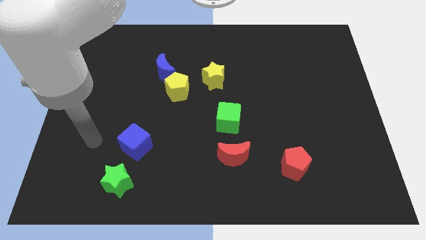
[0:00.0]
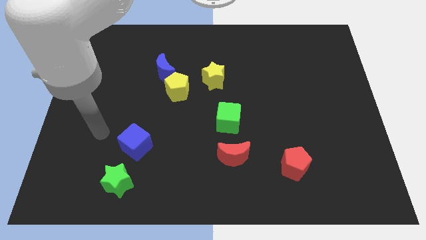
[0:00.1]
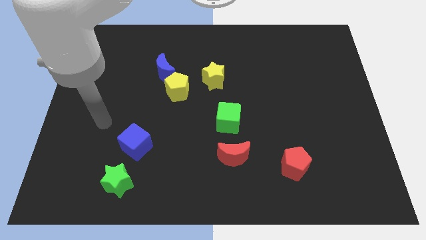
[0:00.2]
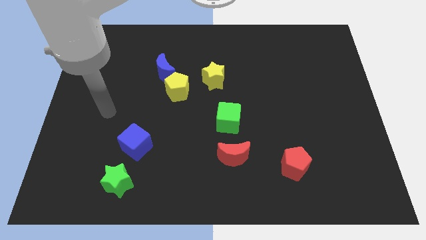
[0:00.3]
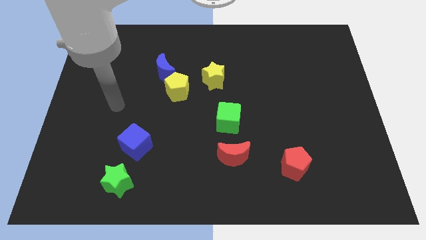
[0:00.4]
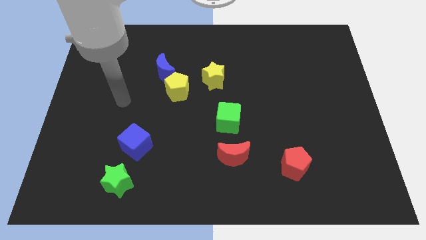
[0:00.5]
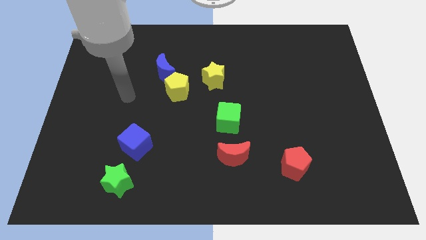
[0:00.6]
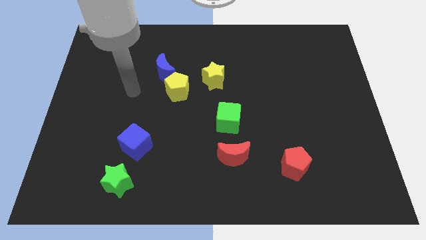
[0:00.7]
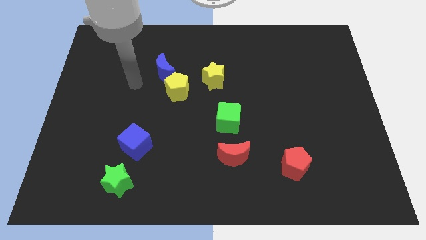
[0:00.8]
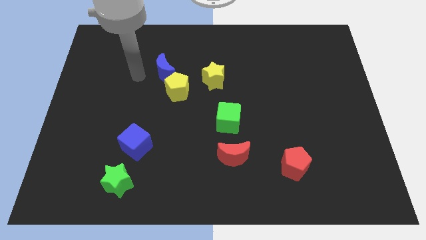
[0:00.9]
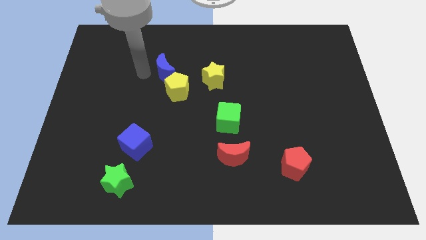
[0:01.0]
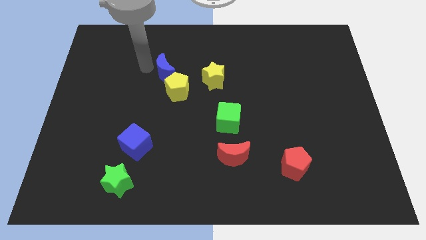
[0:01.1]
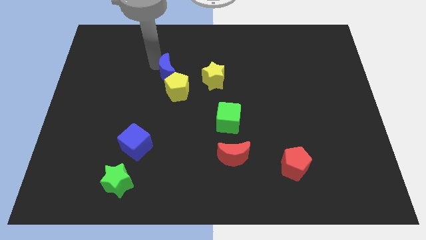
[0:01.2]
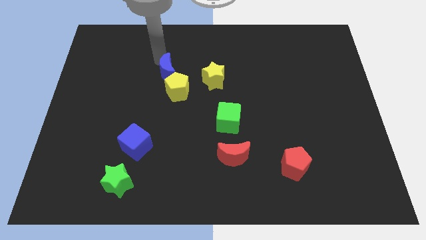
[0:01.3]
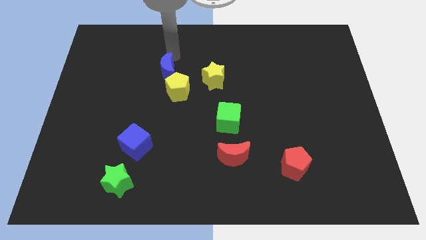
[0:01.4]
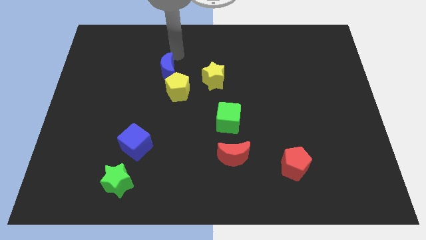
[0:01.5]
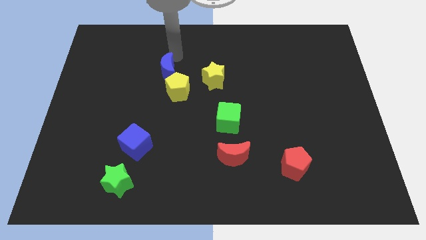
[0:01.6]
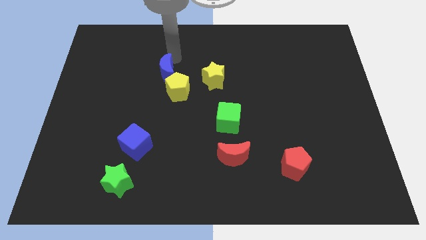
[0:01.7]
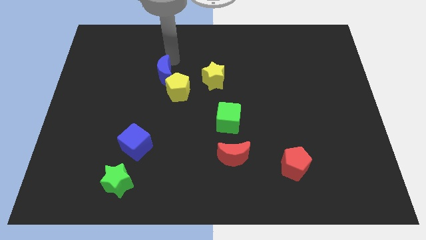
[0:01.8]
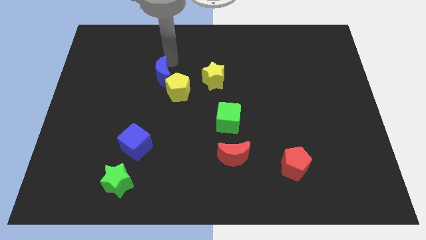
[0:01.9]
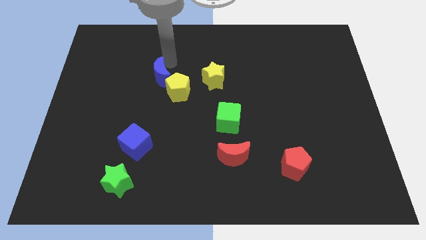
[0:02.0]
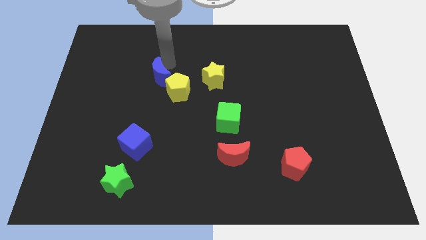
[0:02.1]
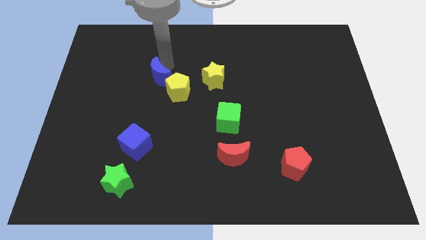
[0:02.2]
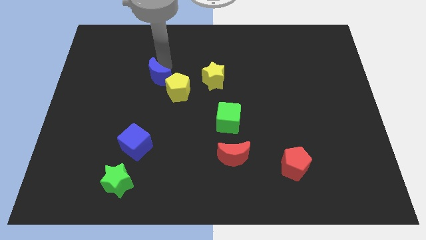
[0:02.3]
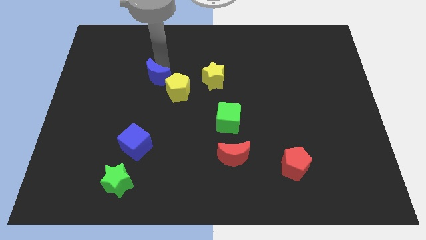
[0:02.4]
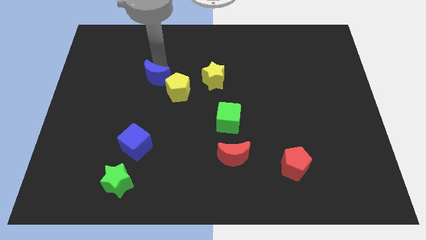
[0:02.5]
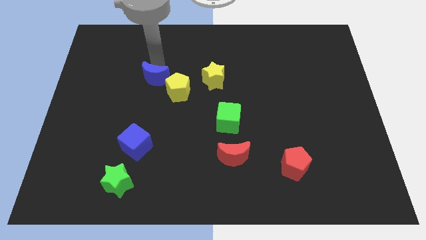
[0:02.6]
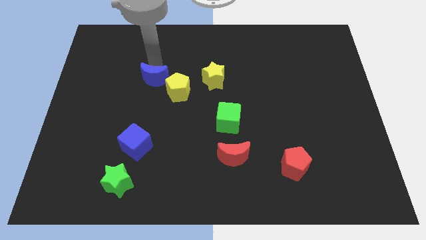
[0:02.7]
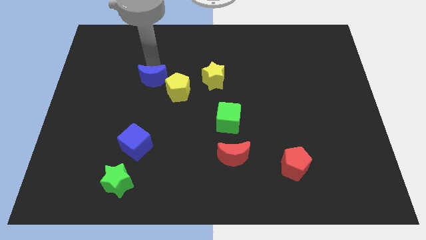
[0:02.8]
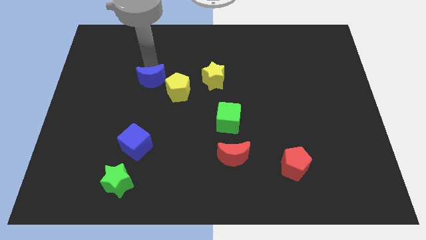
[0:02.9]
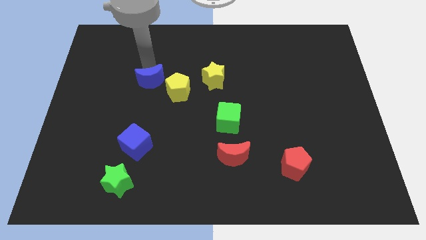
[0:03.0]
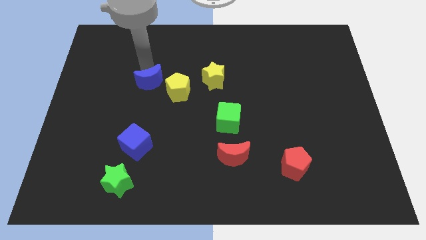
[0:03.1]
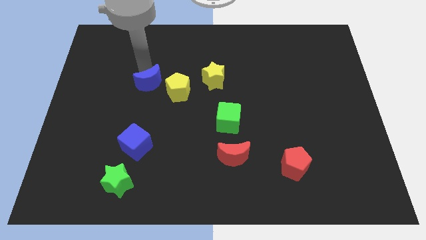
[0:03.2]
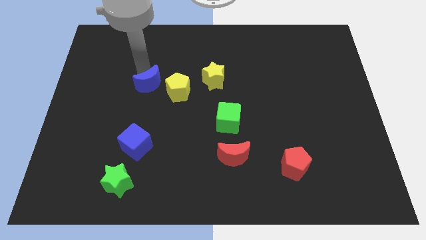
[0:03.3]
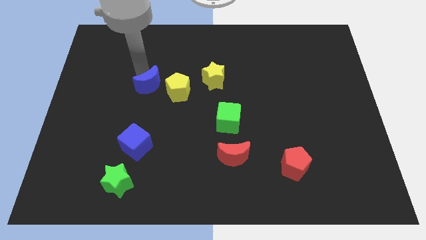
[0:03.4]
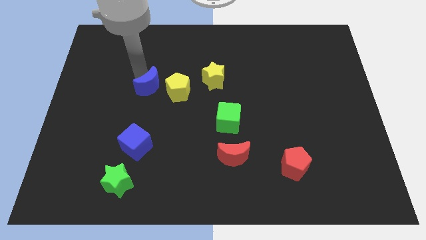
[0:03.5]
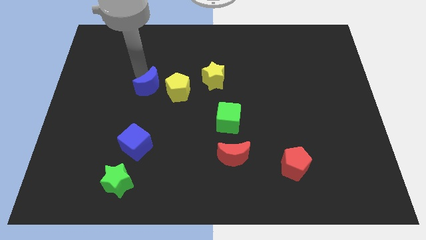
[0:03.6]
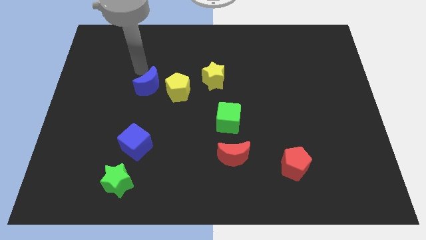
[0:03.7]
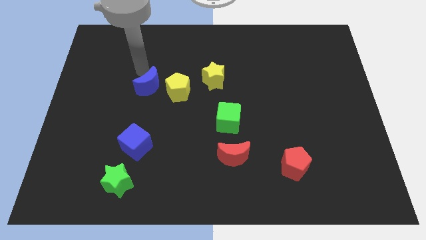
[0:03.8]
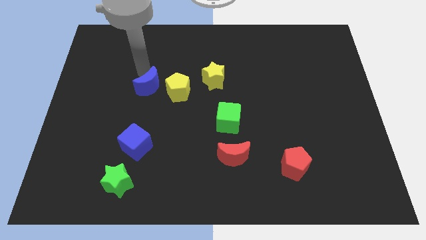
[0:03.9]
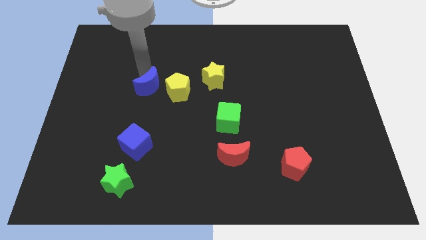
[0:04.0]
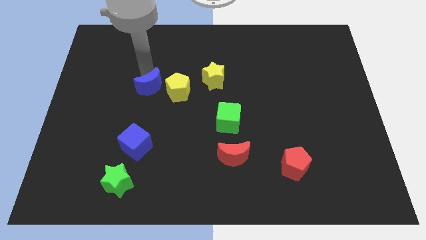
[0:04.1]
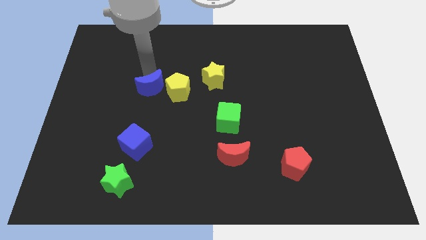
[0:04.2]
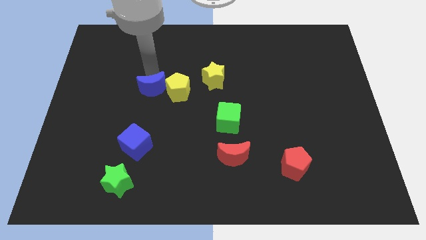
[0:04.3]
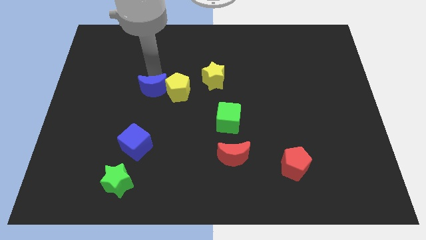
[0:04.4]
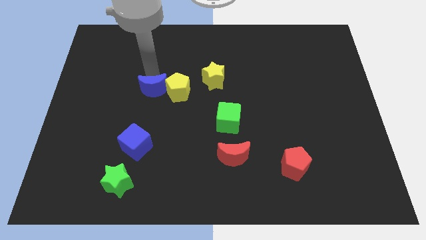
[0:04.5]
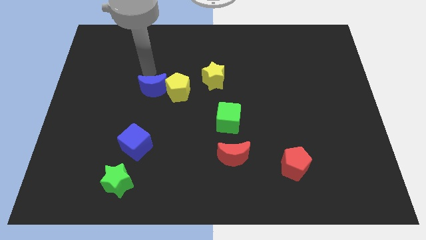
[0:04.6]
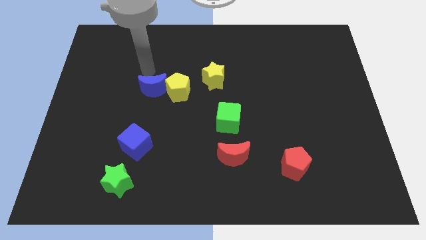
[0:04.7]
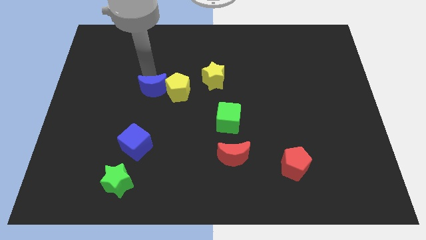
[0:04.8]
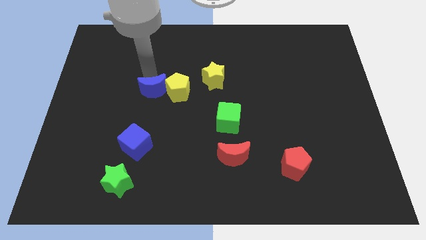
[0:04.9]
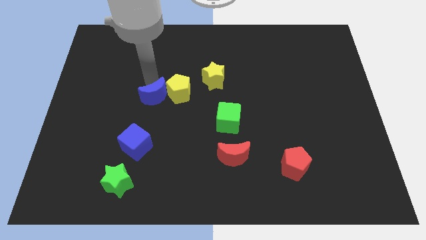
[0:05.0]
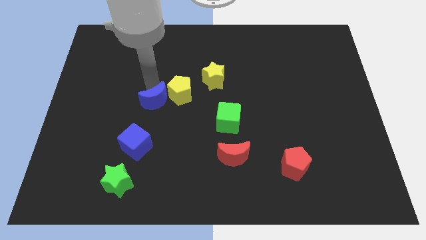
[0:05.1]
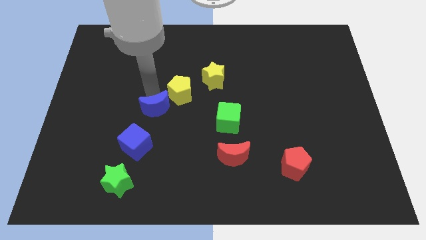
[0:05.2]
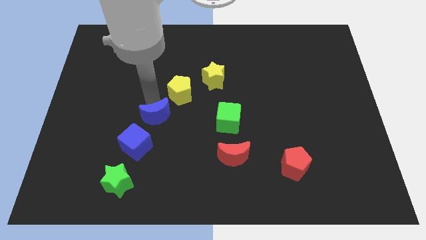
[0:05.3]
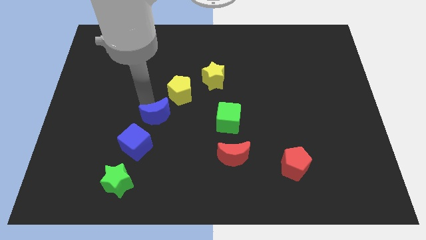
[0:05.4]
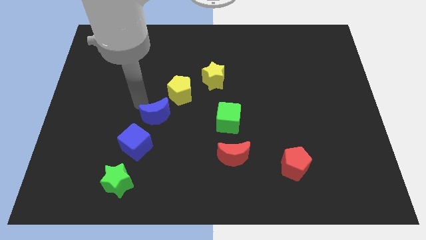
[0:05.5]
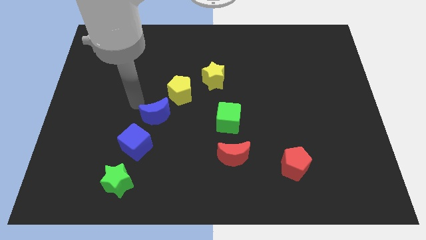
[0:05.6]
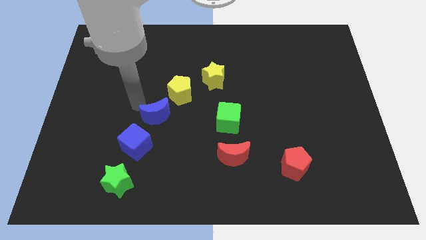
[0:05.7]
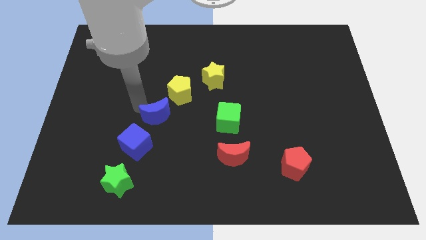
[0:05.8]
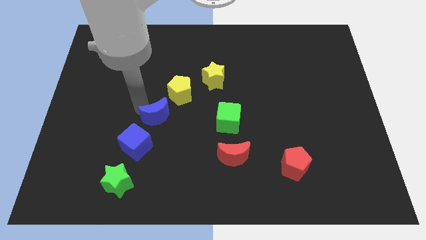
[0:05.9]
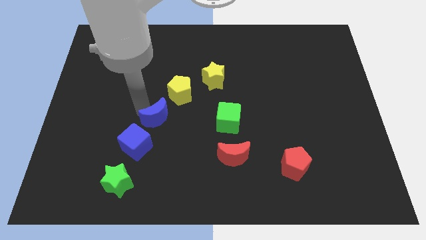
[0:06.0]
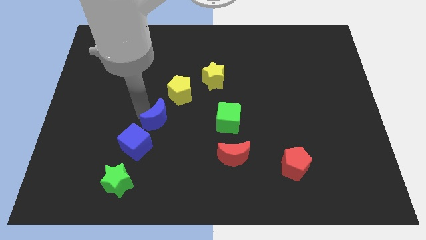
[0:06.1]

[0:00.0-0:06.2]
put the blue moon to the bottom side of the yellow pentagon

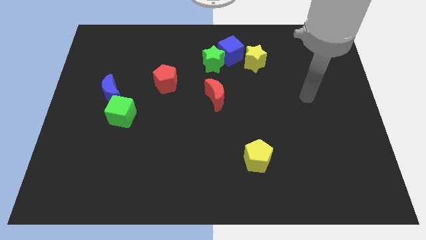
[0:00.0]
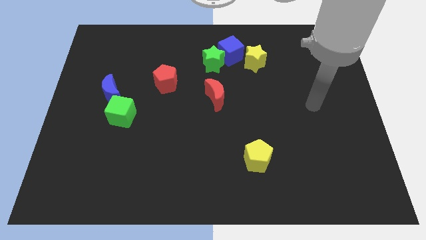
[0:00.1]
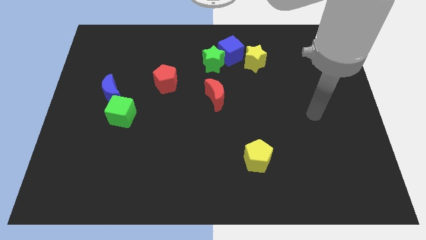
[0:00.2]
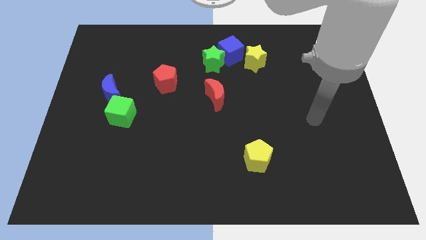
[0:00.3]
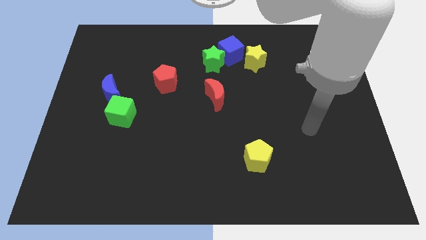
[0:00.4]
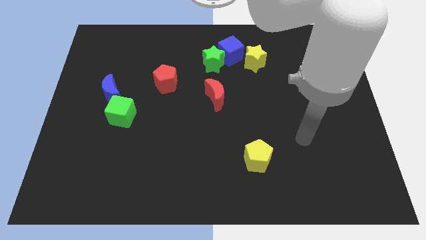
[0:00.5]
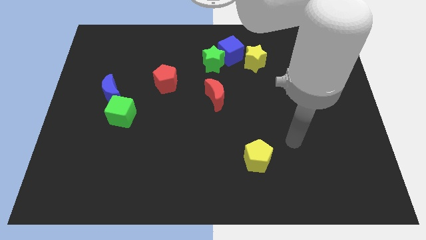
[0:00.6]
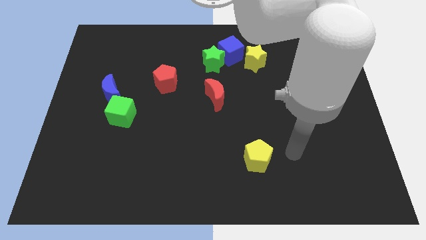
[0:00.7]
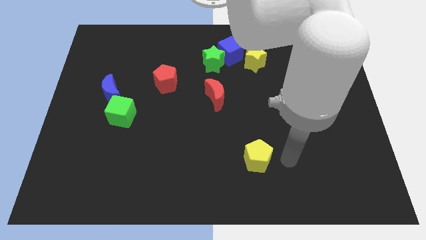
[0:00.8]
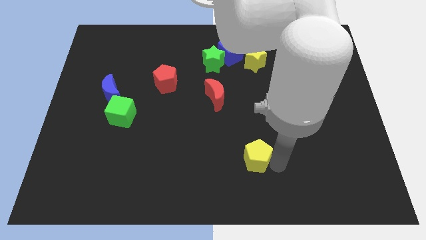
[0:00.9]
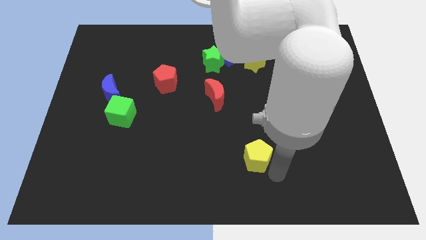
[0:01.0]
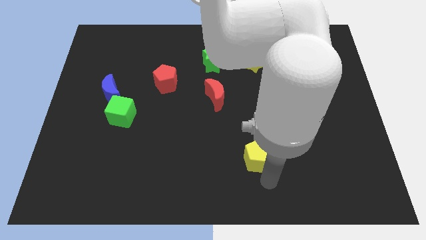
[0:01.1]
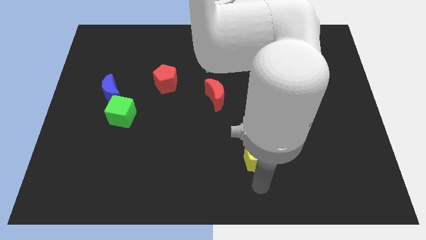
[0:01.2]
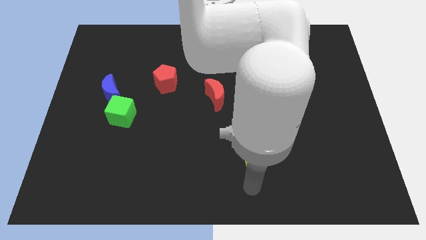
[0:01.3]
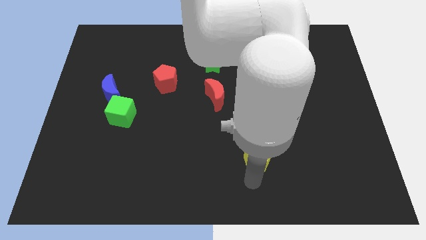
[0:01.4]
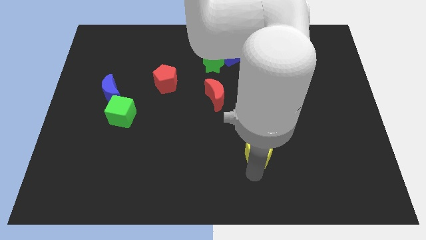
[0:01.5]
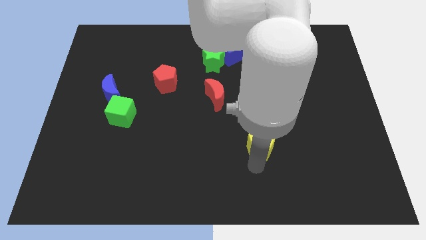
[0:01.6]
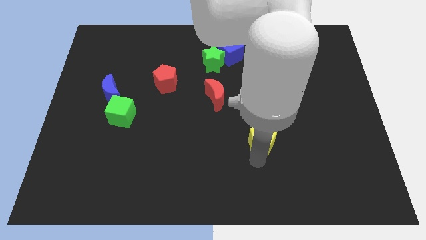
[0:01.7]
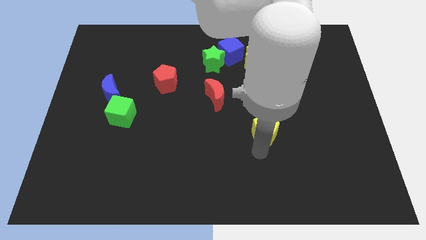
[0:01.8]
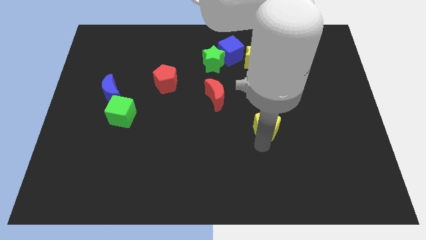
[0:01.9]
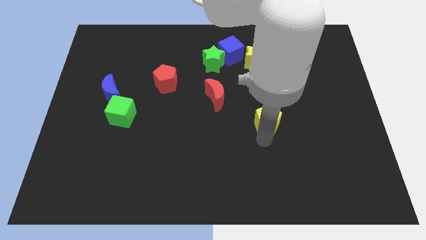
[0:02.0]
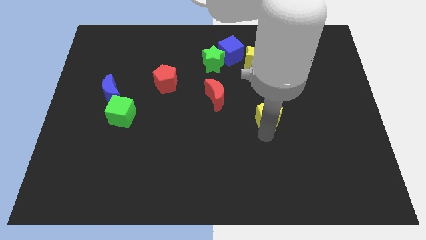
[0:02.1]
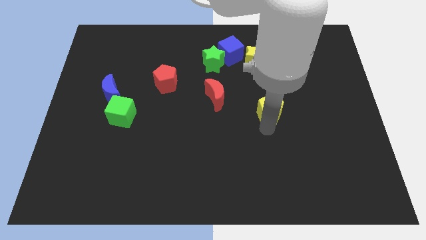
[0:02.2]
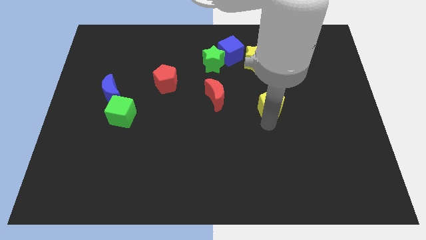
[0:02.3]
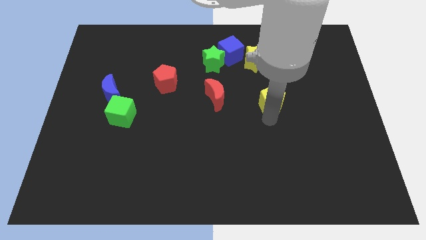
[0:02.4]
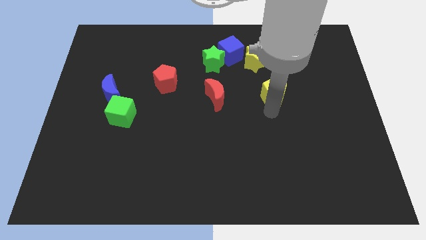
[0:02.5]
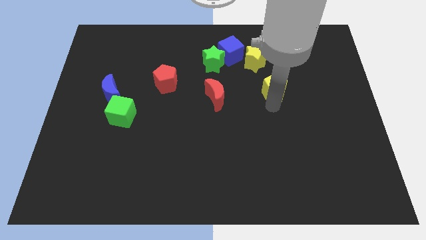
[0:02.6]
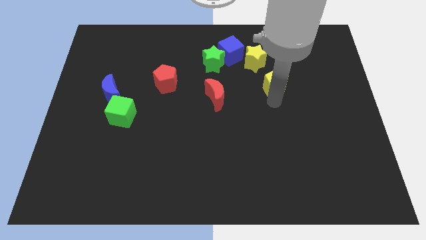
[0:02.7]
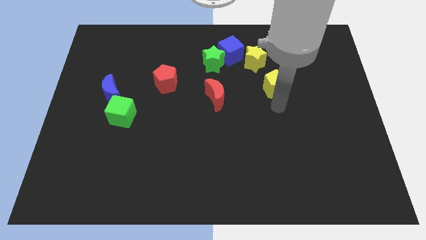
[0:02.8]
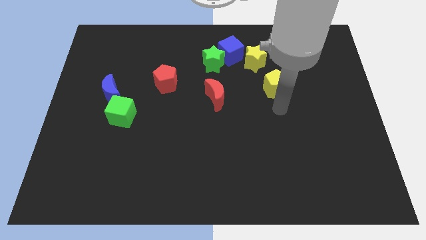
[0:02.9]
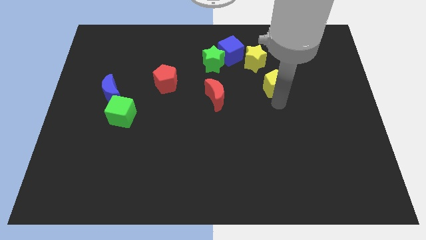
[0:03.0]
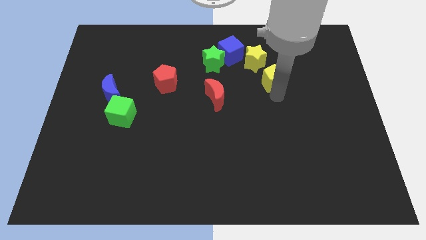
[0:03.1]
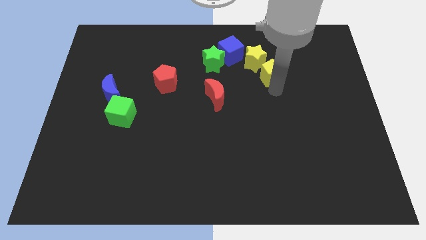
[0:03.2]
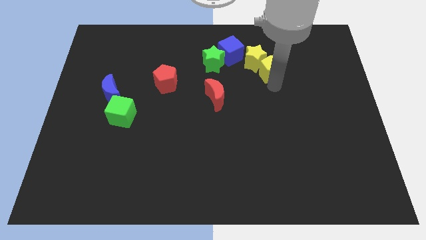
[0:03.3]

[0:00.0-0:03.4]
put the yellow pentagon right of the green star
